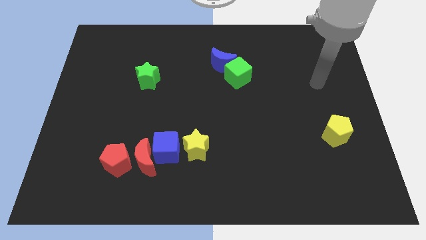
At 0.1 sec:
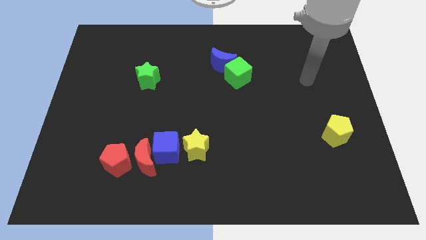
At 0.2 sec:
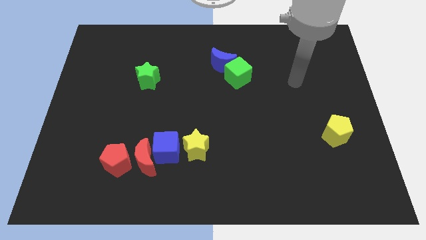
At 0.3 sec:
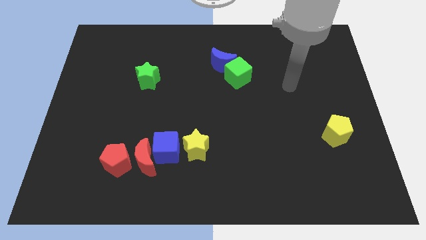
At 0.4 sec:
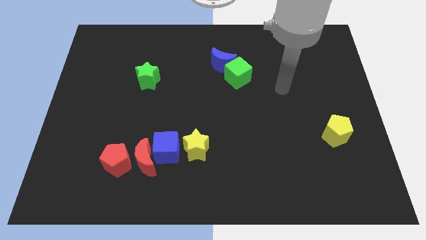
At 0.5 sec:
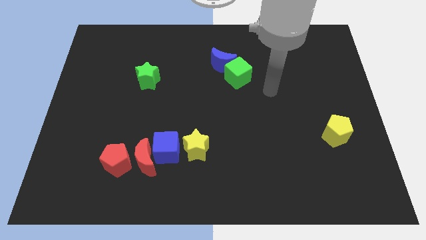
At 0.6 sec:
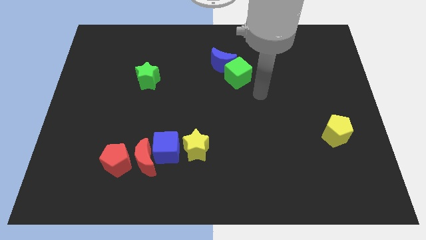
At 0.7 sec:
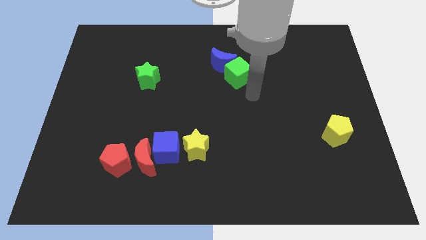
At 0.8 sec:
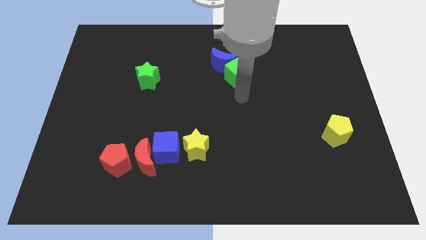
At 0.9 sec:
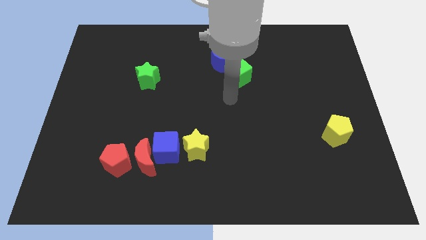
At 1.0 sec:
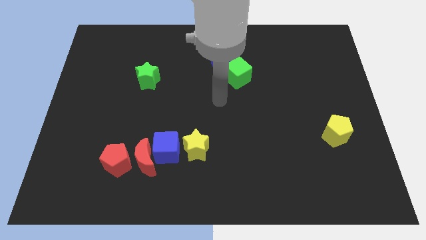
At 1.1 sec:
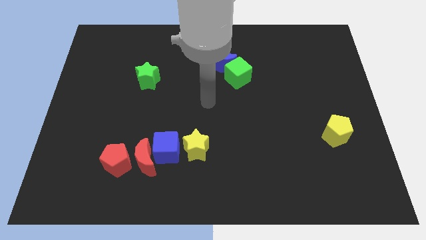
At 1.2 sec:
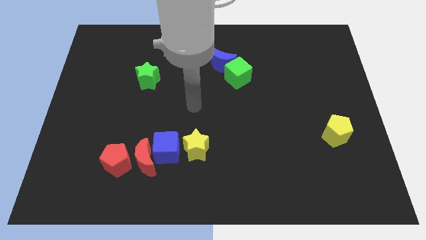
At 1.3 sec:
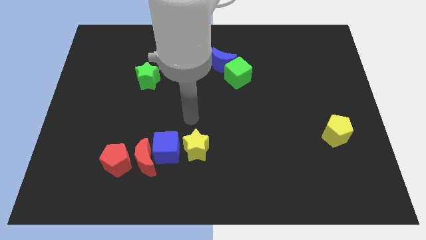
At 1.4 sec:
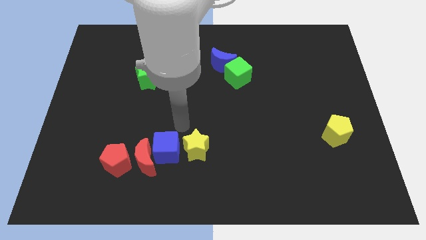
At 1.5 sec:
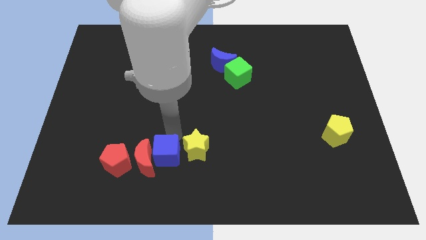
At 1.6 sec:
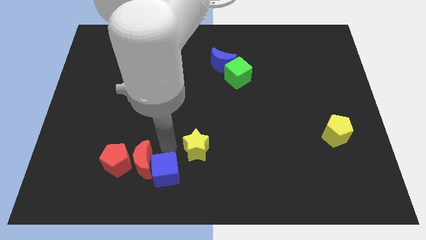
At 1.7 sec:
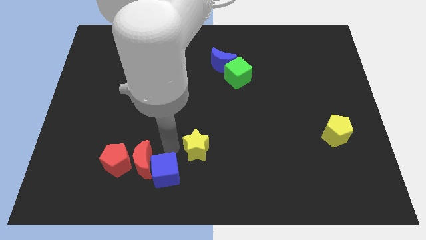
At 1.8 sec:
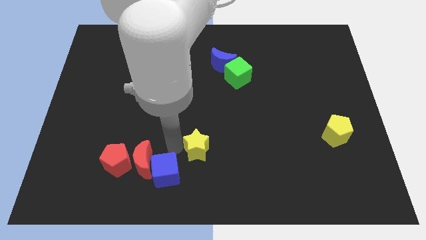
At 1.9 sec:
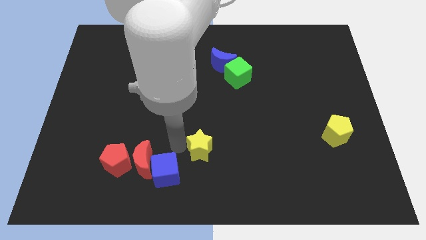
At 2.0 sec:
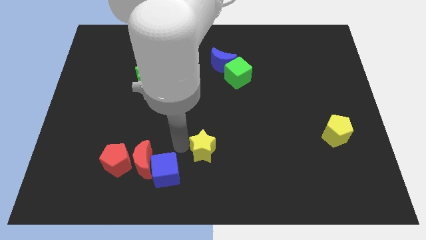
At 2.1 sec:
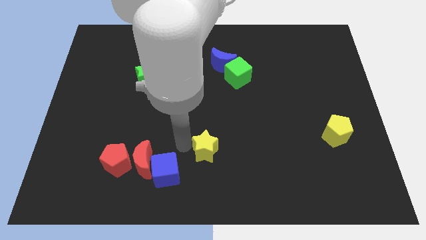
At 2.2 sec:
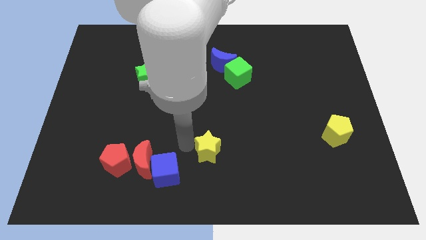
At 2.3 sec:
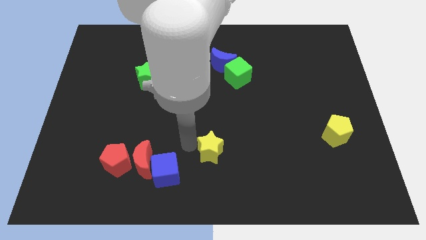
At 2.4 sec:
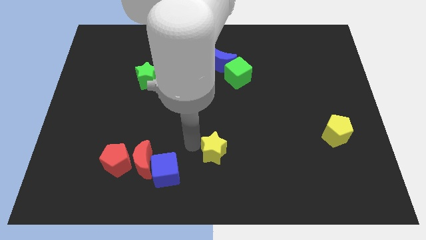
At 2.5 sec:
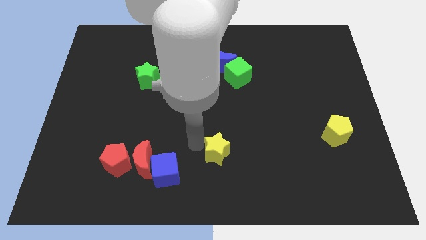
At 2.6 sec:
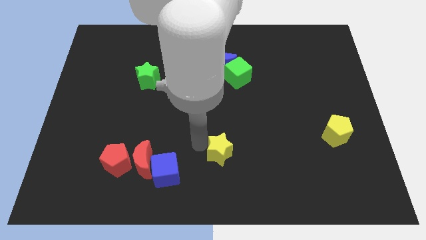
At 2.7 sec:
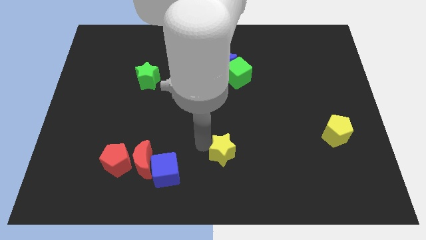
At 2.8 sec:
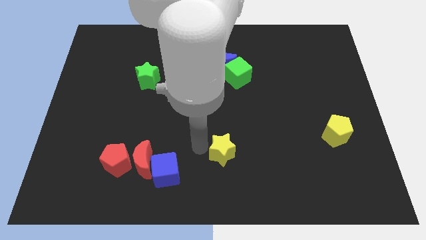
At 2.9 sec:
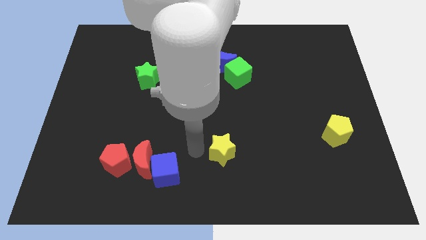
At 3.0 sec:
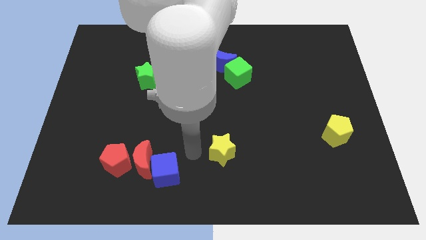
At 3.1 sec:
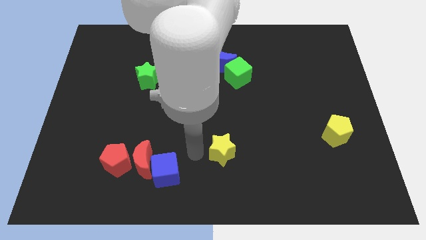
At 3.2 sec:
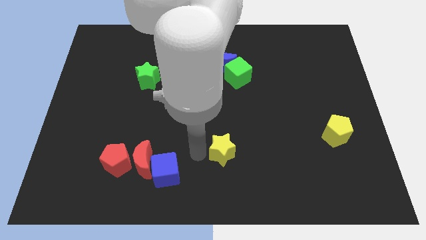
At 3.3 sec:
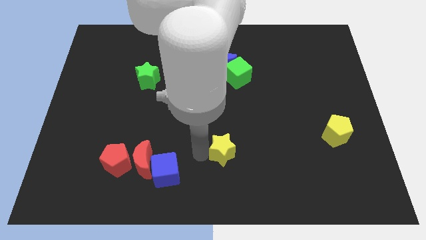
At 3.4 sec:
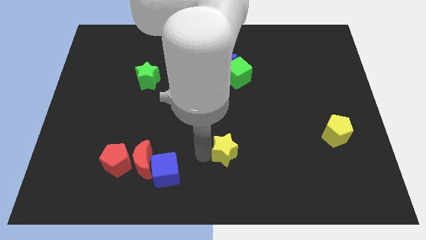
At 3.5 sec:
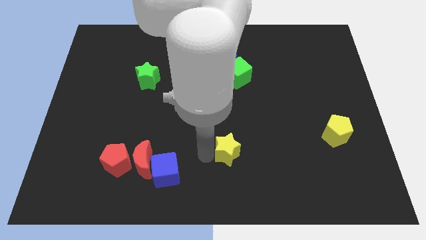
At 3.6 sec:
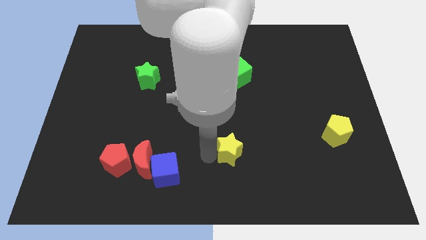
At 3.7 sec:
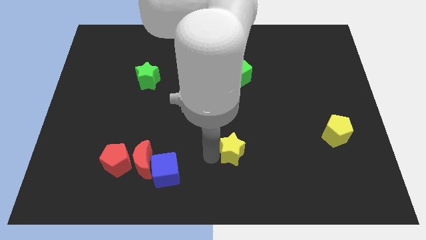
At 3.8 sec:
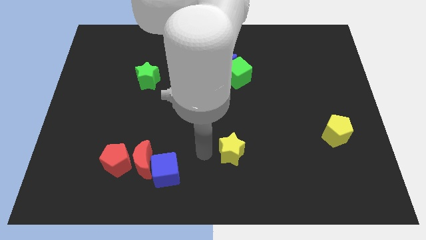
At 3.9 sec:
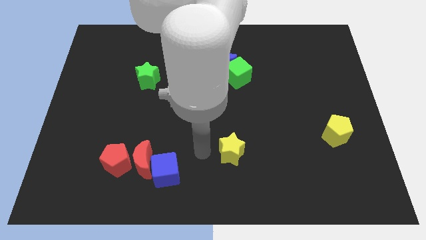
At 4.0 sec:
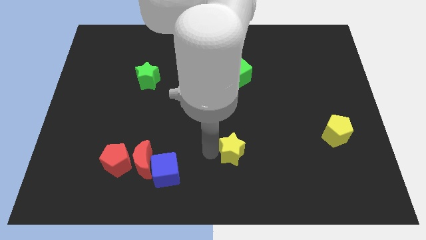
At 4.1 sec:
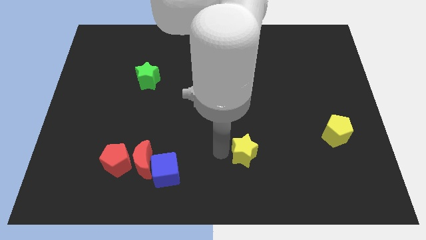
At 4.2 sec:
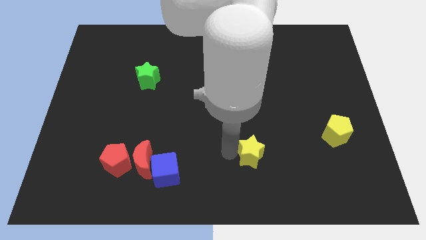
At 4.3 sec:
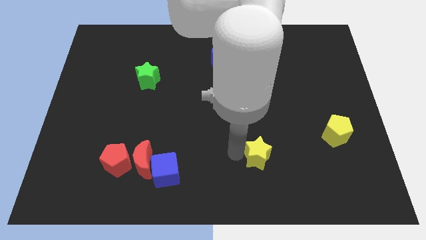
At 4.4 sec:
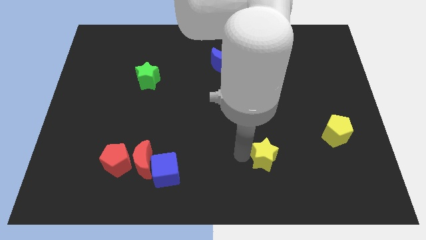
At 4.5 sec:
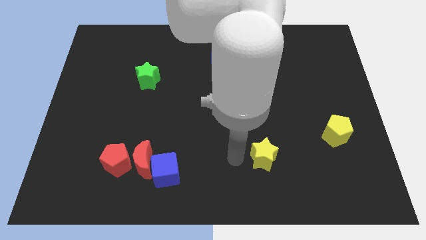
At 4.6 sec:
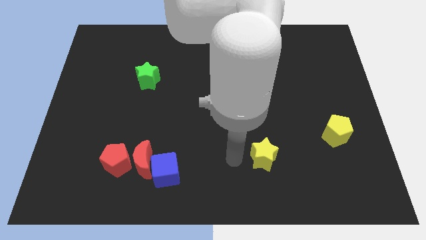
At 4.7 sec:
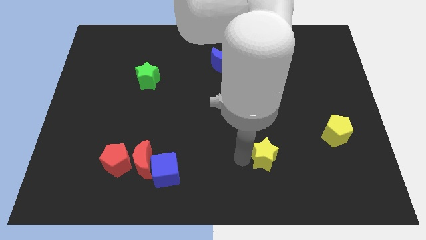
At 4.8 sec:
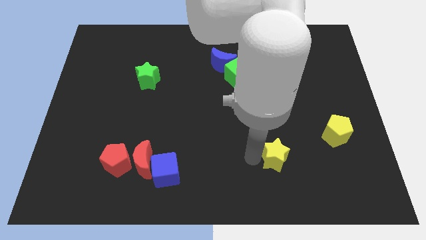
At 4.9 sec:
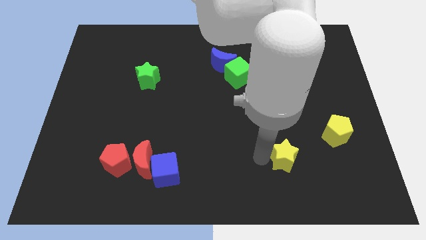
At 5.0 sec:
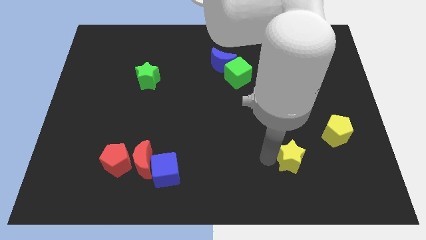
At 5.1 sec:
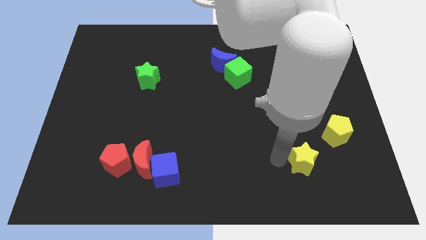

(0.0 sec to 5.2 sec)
move the yellow star right

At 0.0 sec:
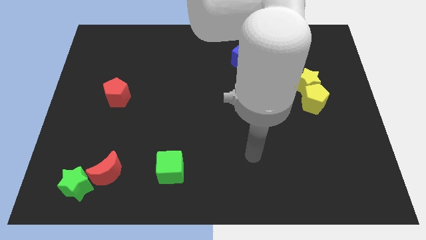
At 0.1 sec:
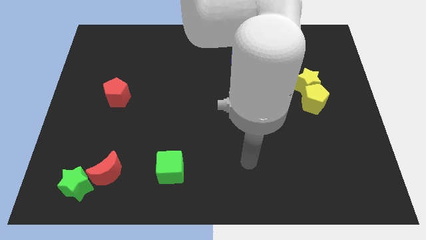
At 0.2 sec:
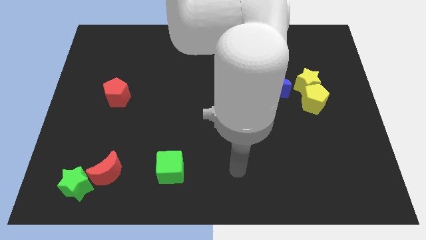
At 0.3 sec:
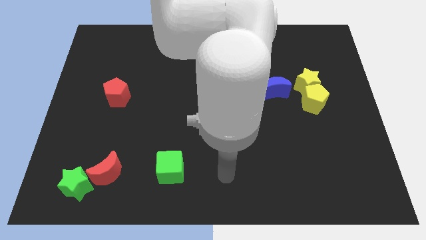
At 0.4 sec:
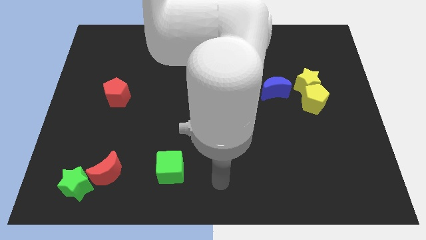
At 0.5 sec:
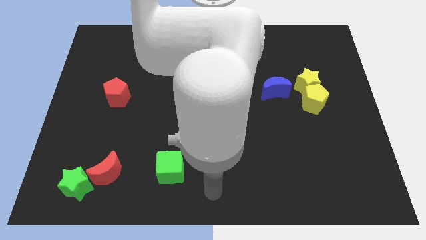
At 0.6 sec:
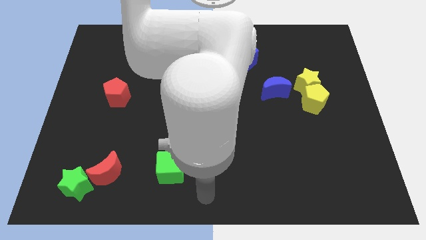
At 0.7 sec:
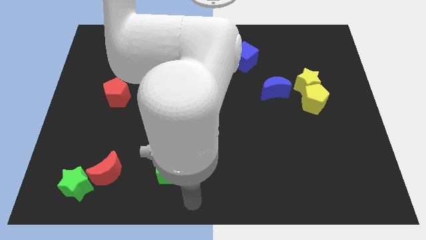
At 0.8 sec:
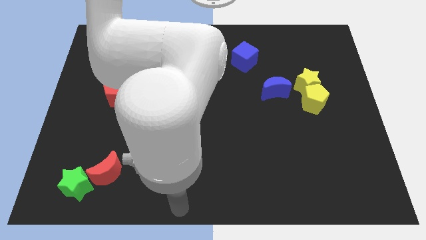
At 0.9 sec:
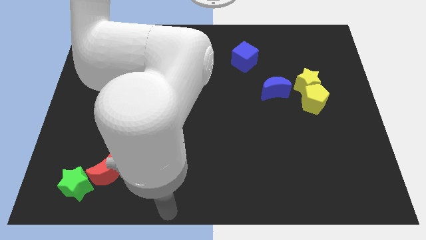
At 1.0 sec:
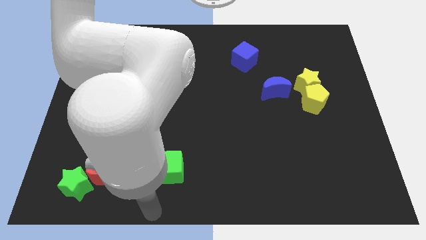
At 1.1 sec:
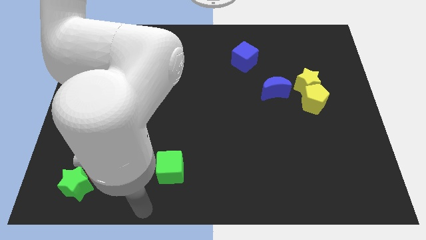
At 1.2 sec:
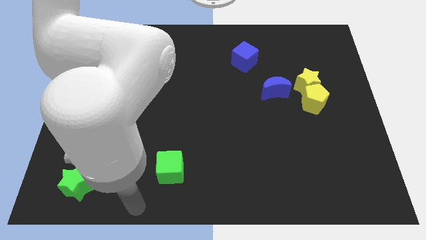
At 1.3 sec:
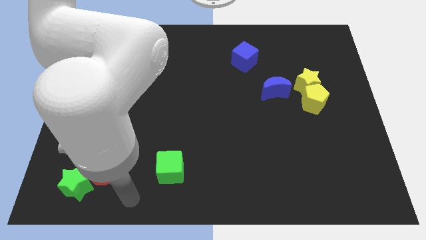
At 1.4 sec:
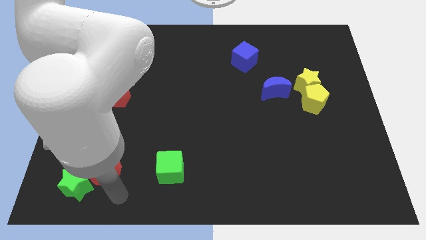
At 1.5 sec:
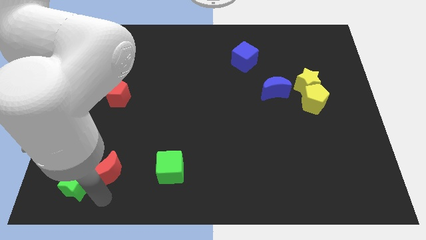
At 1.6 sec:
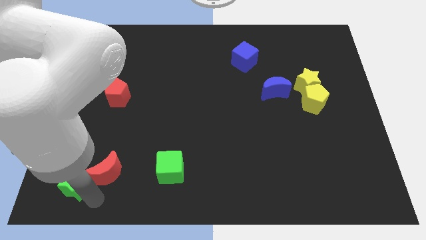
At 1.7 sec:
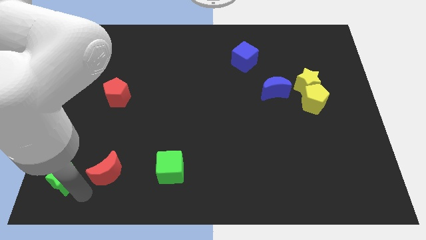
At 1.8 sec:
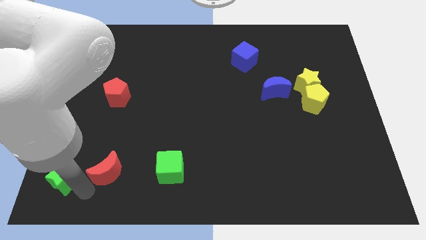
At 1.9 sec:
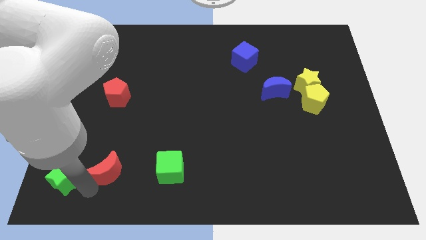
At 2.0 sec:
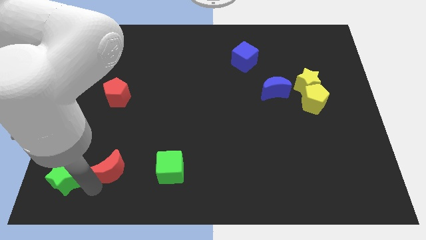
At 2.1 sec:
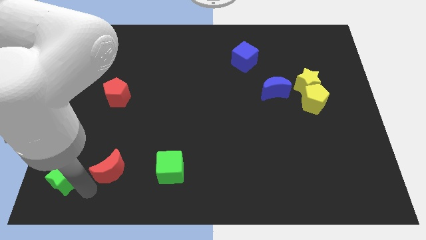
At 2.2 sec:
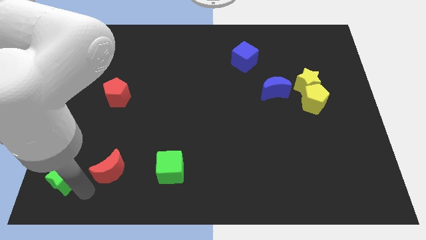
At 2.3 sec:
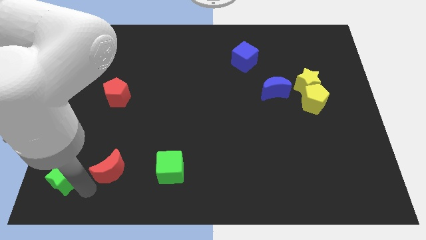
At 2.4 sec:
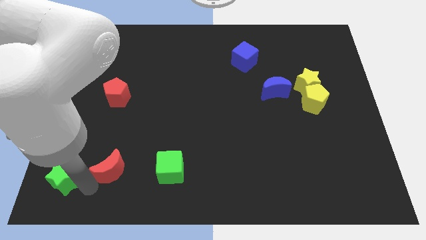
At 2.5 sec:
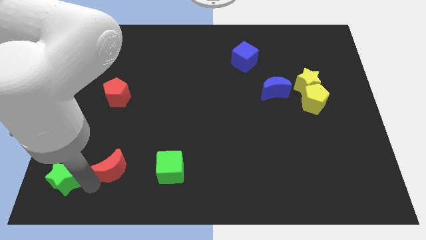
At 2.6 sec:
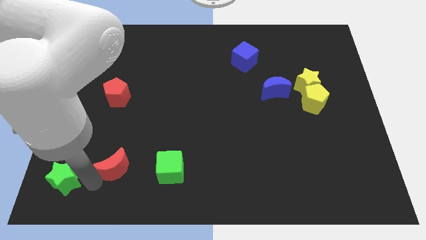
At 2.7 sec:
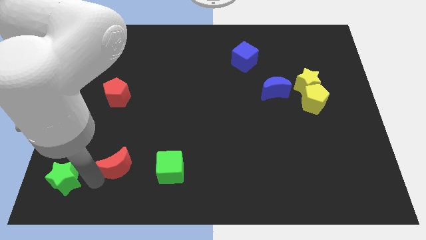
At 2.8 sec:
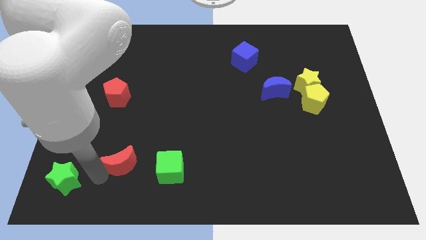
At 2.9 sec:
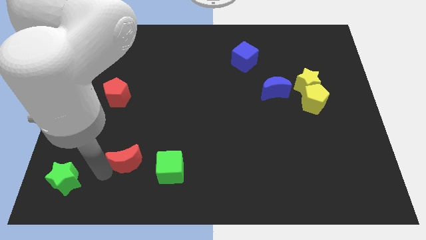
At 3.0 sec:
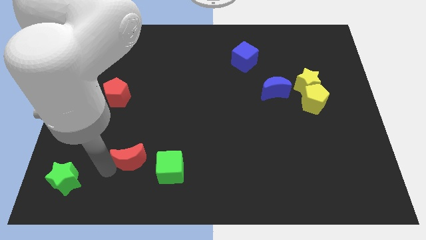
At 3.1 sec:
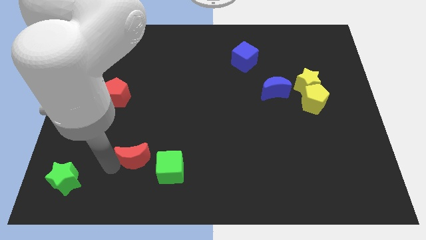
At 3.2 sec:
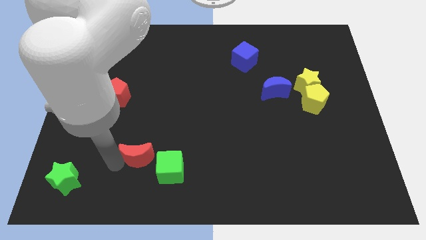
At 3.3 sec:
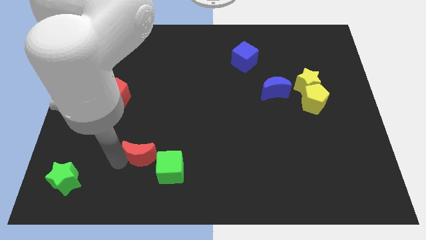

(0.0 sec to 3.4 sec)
slightly push the red moon upwards and then right
